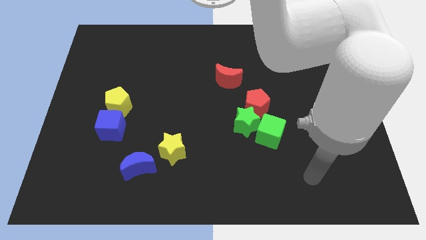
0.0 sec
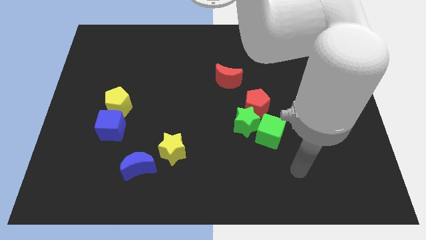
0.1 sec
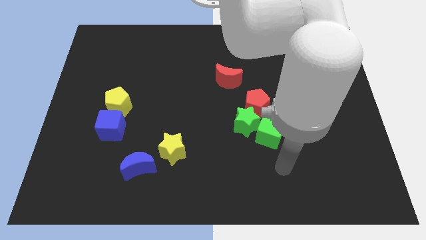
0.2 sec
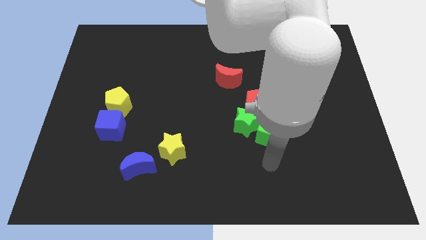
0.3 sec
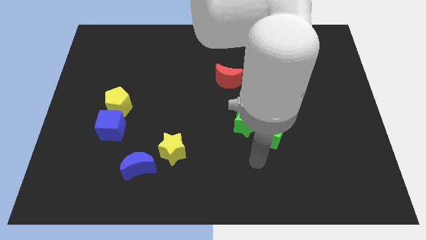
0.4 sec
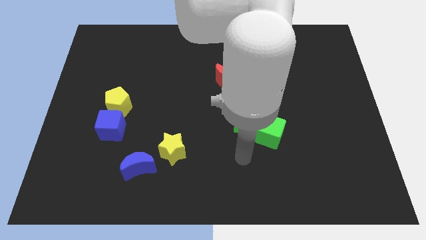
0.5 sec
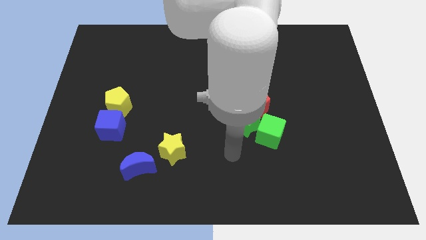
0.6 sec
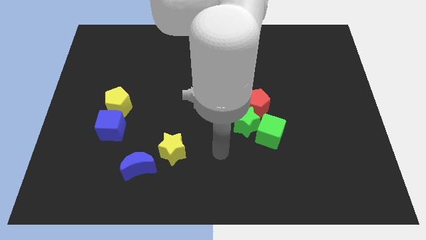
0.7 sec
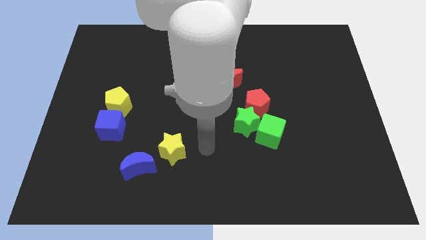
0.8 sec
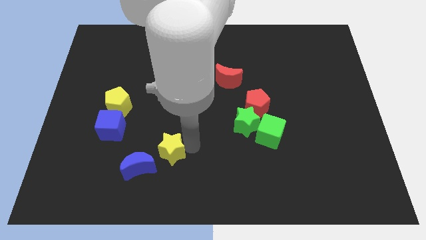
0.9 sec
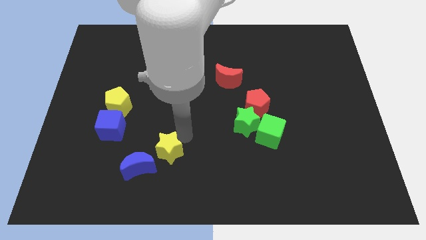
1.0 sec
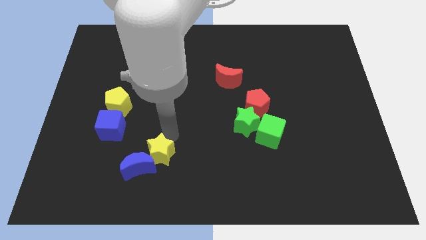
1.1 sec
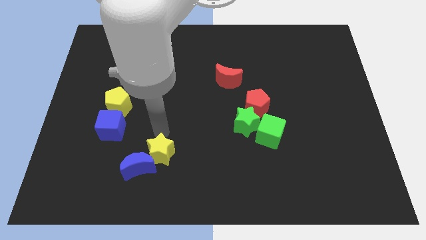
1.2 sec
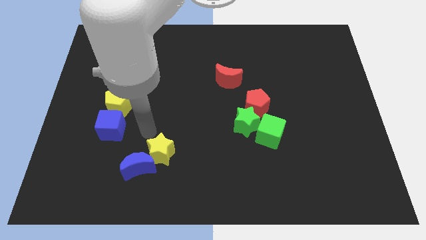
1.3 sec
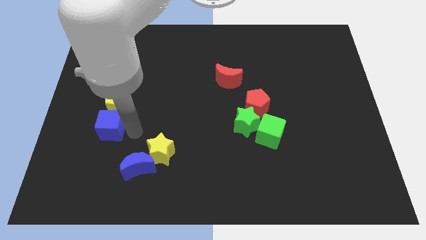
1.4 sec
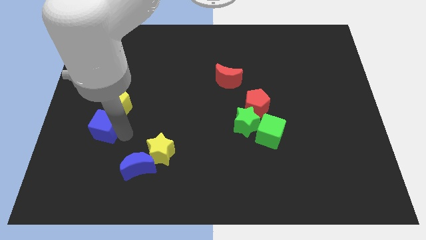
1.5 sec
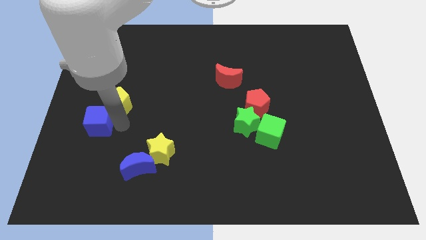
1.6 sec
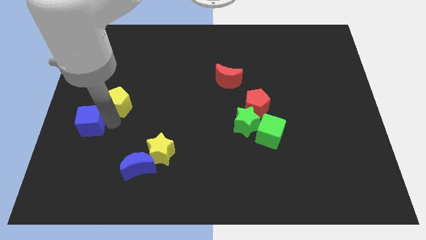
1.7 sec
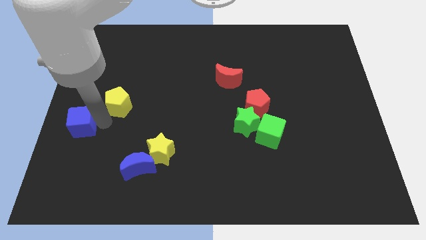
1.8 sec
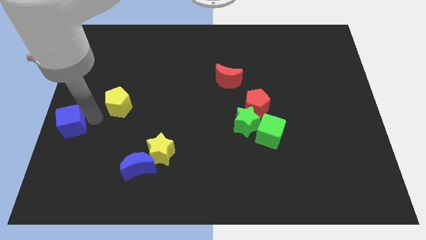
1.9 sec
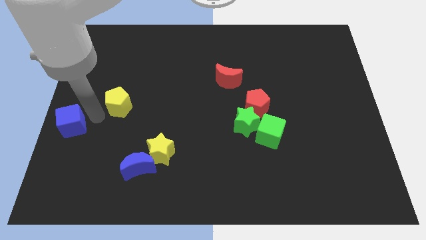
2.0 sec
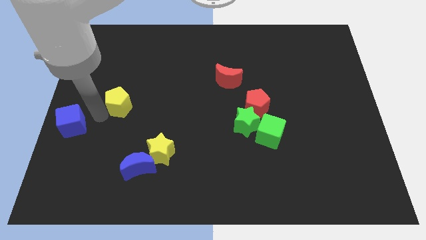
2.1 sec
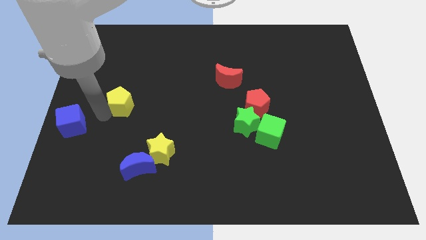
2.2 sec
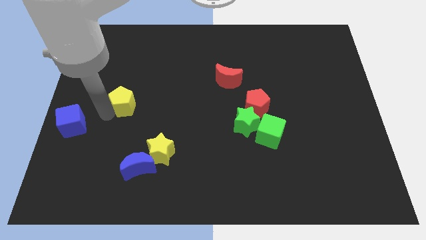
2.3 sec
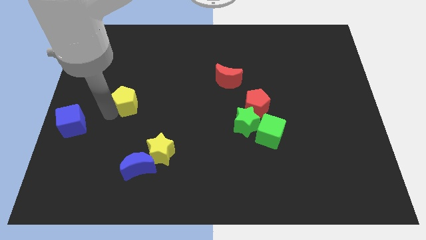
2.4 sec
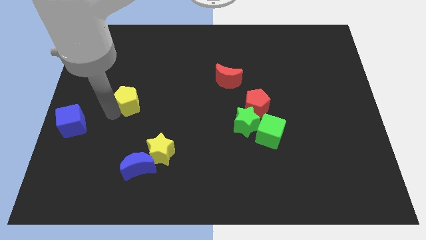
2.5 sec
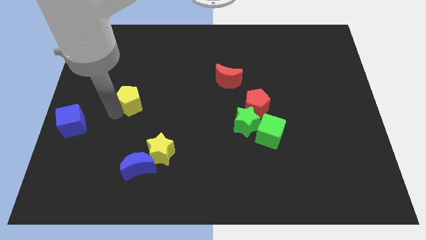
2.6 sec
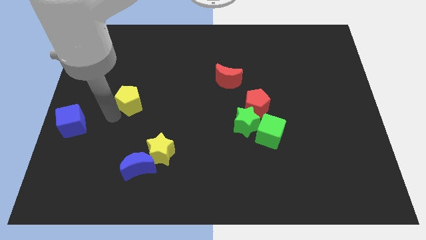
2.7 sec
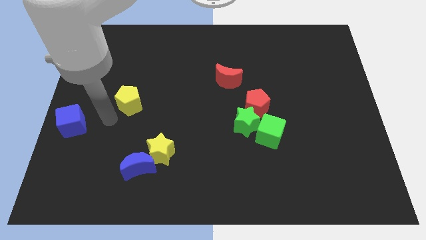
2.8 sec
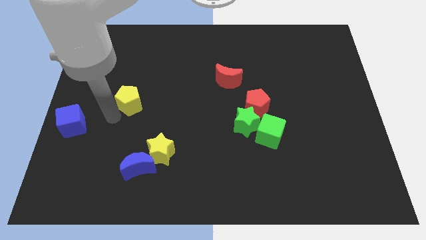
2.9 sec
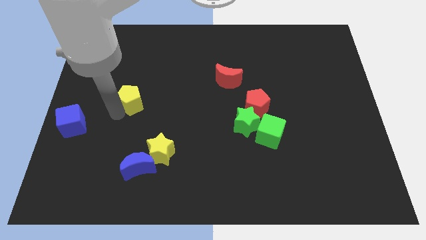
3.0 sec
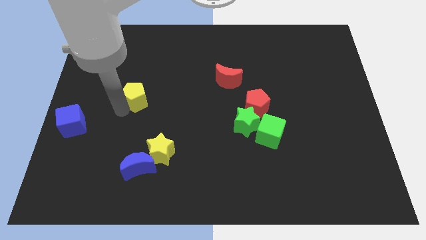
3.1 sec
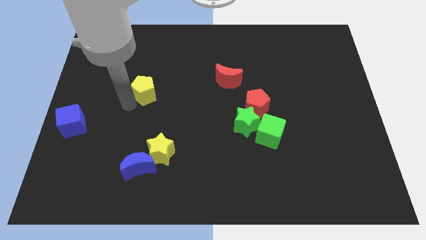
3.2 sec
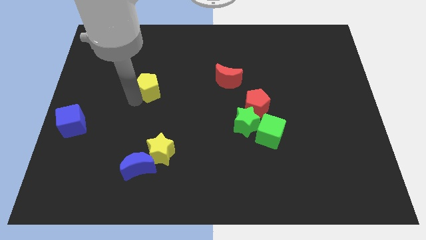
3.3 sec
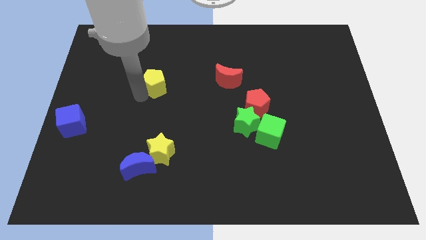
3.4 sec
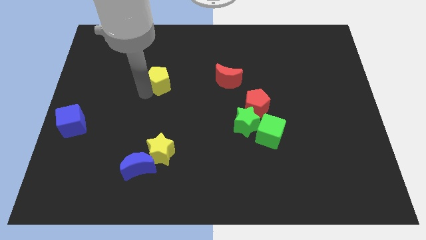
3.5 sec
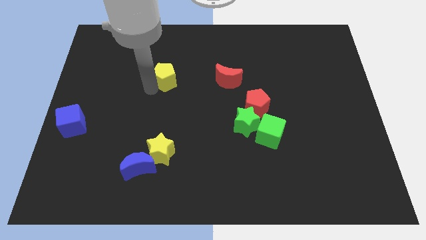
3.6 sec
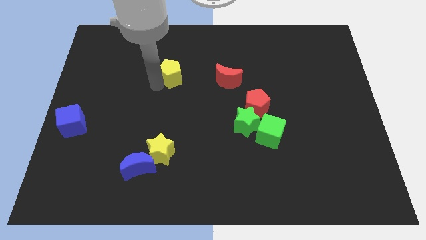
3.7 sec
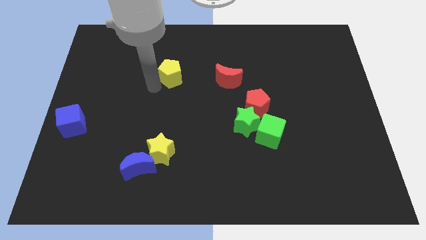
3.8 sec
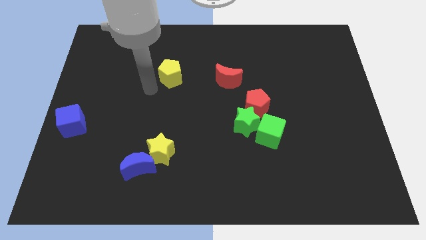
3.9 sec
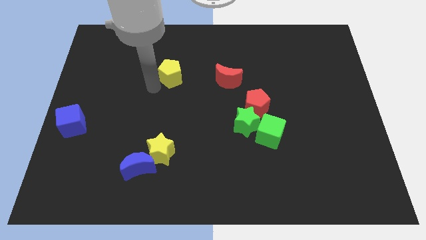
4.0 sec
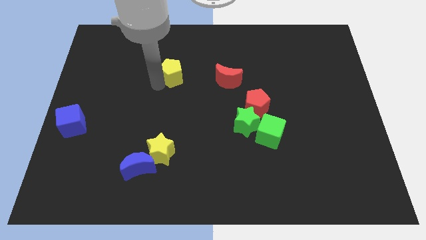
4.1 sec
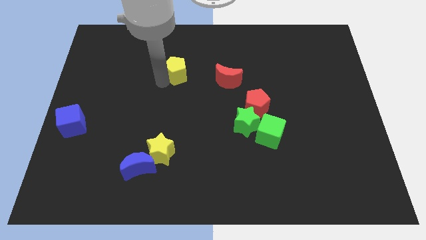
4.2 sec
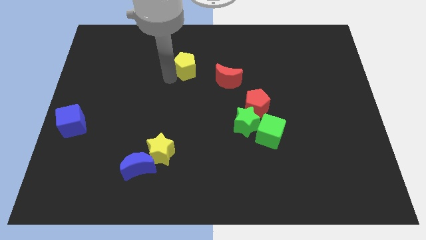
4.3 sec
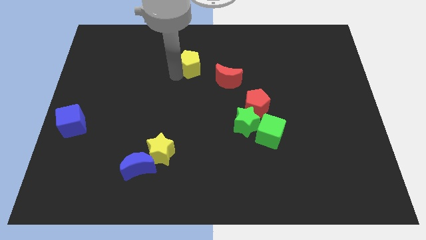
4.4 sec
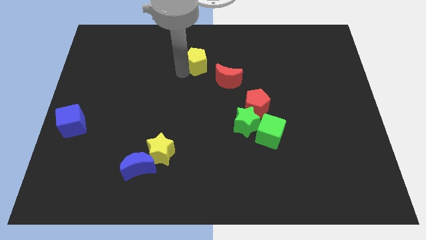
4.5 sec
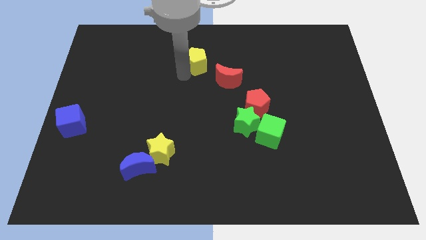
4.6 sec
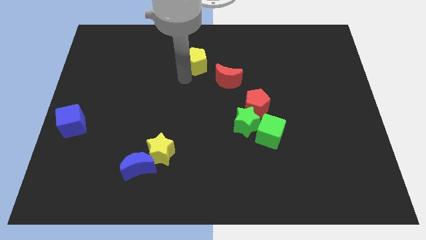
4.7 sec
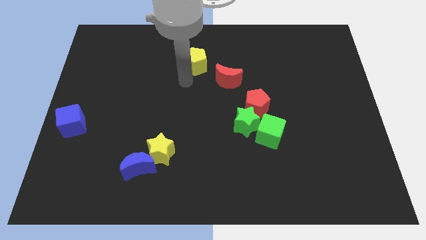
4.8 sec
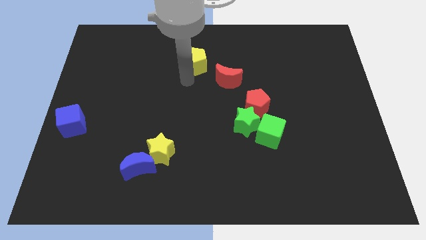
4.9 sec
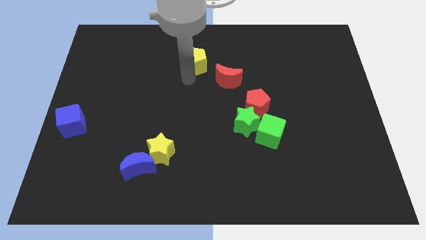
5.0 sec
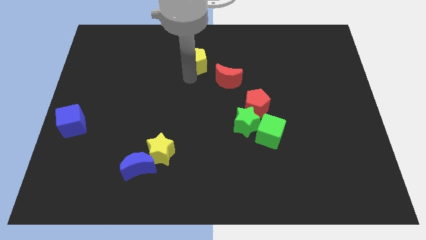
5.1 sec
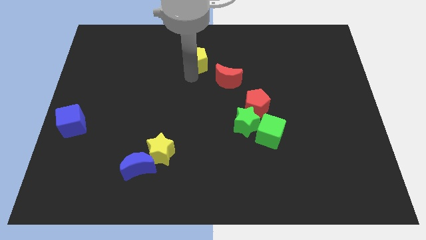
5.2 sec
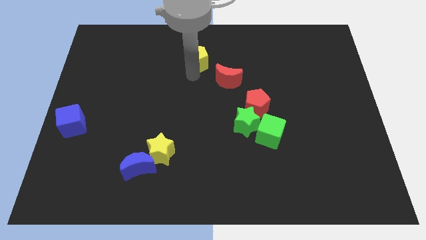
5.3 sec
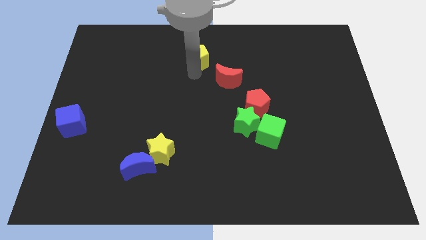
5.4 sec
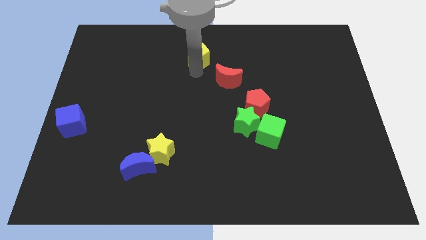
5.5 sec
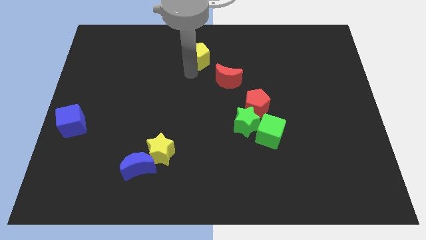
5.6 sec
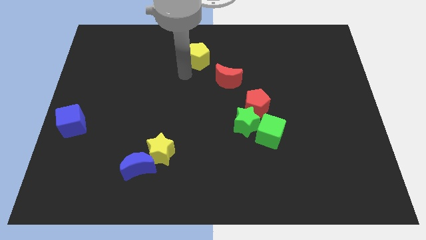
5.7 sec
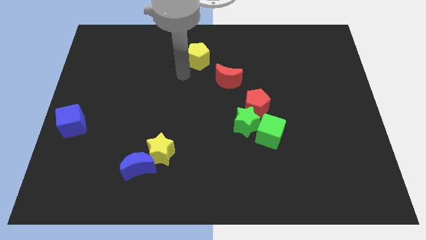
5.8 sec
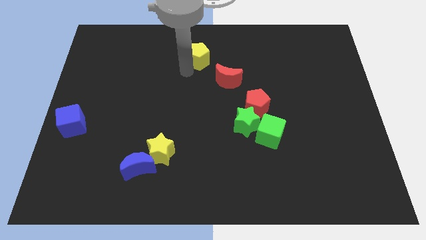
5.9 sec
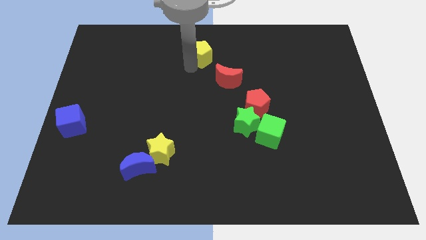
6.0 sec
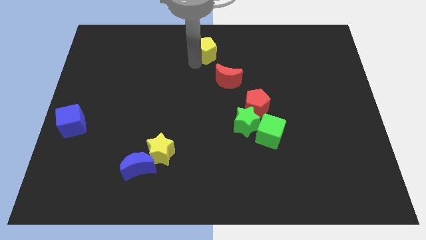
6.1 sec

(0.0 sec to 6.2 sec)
slide the yellow pentagon to the towards your base
